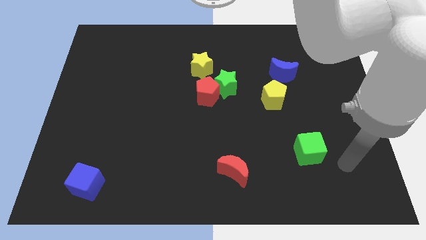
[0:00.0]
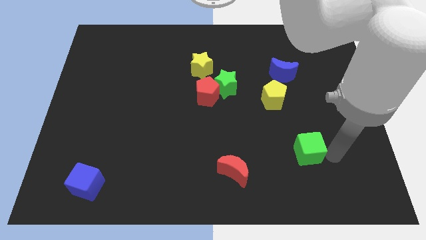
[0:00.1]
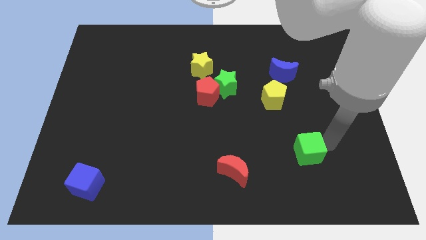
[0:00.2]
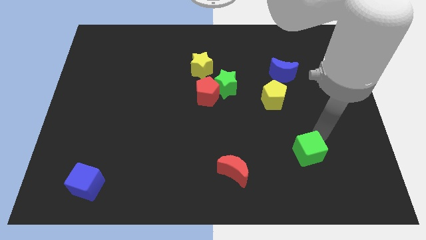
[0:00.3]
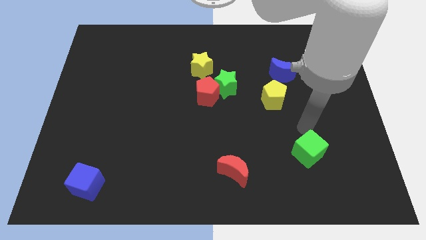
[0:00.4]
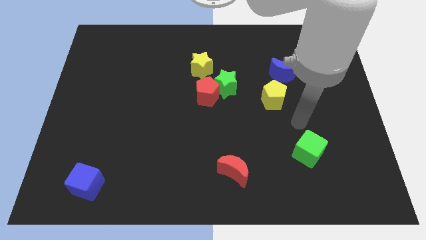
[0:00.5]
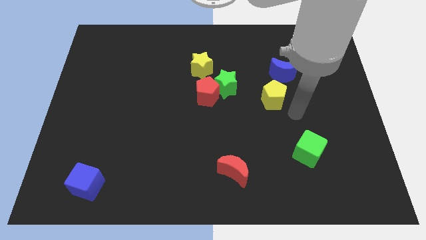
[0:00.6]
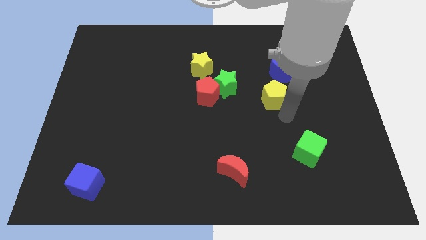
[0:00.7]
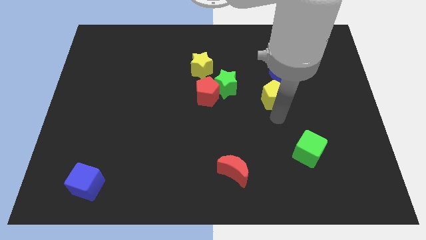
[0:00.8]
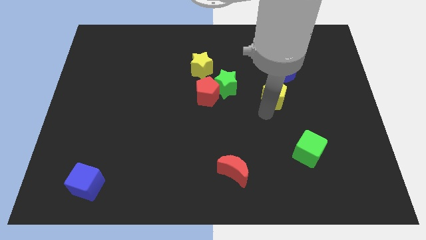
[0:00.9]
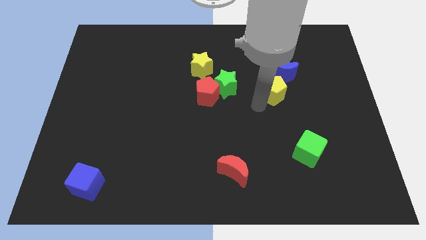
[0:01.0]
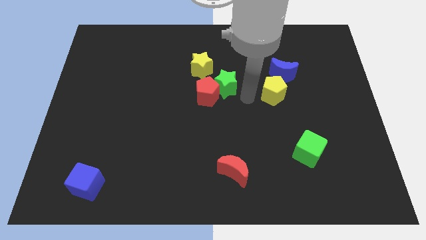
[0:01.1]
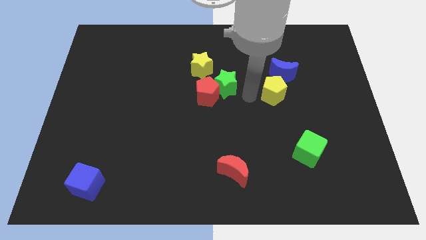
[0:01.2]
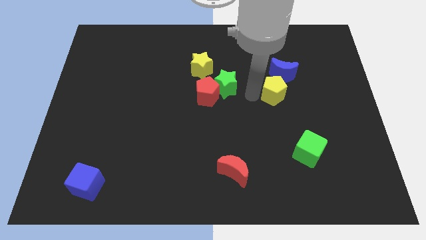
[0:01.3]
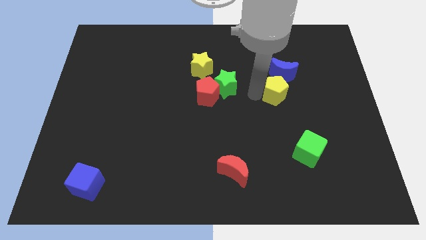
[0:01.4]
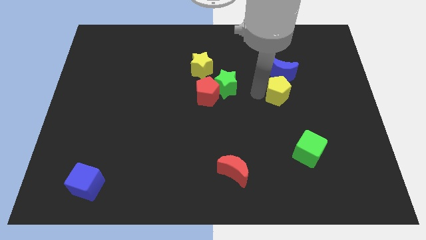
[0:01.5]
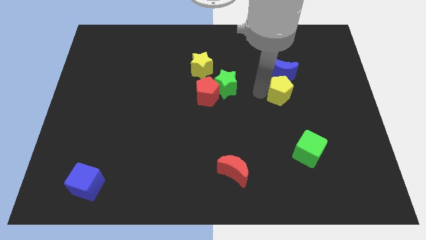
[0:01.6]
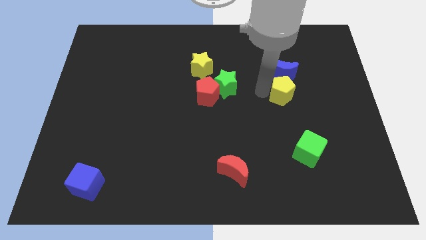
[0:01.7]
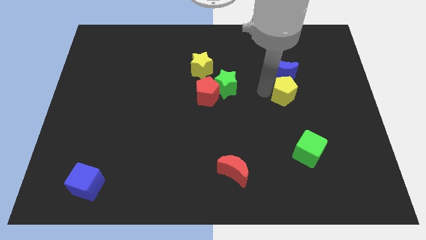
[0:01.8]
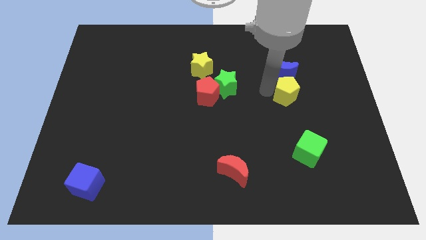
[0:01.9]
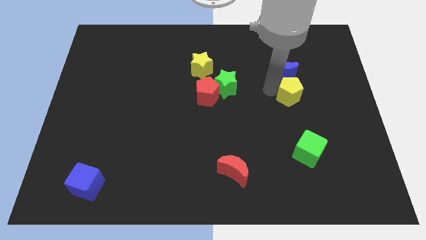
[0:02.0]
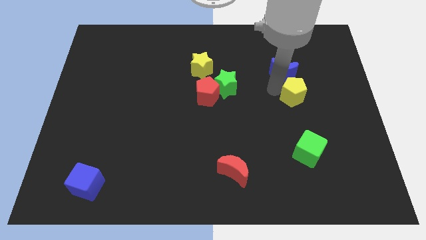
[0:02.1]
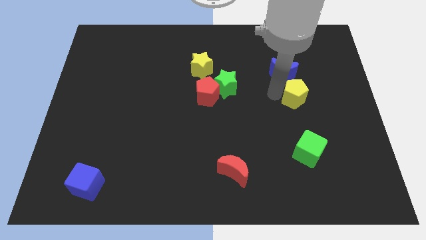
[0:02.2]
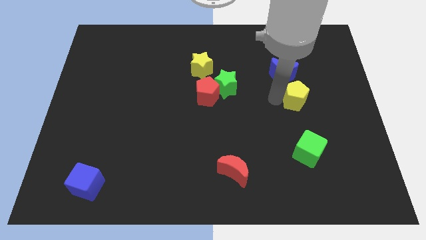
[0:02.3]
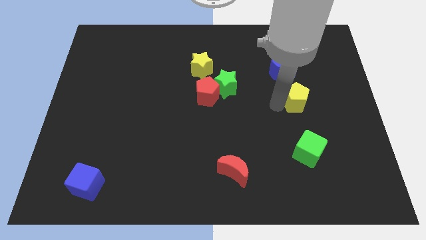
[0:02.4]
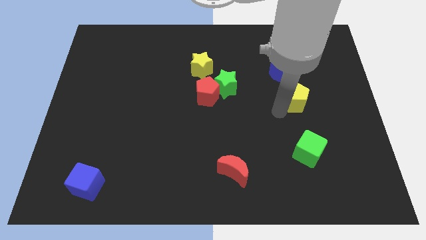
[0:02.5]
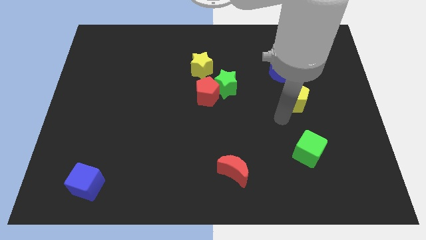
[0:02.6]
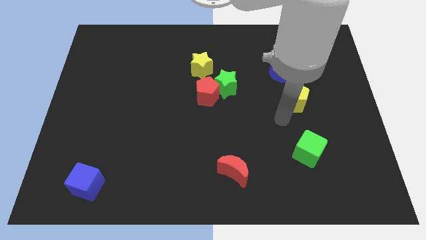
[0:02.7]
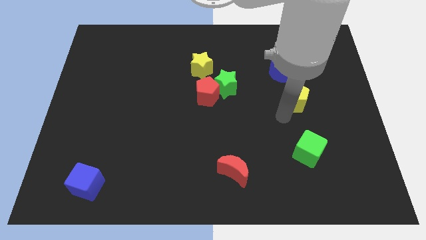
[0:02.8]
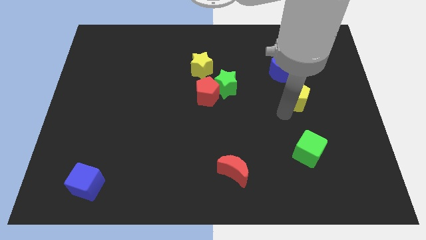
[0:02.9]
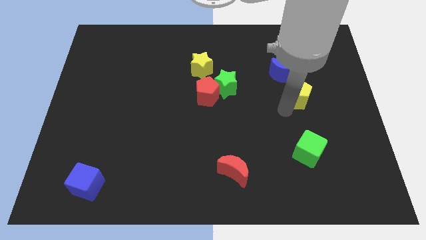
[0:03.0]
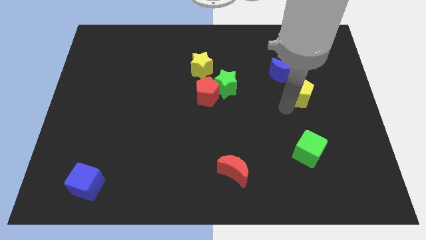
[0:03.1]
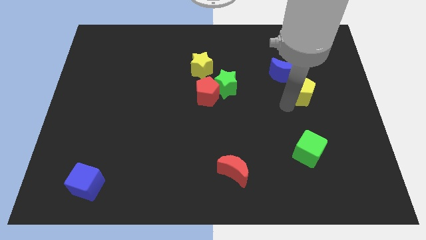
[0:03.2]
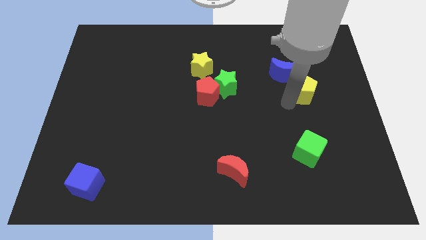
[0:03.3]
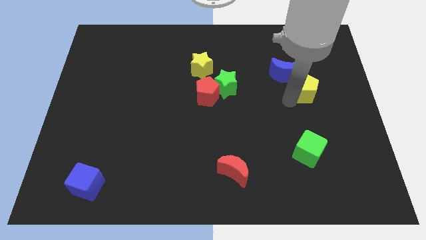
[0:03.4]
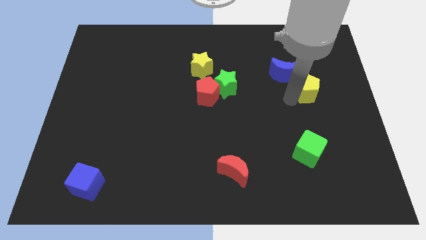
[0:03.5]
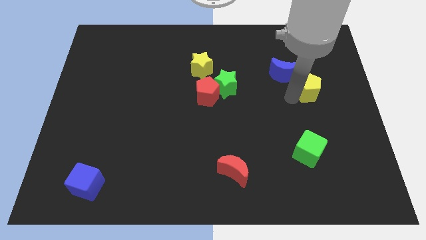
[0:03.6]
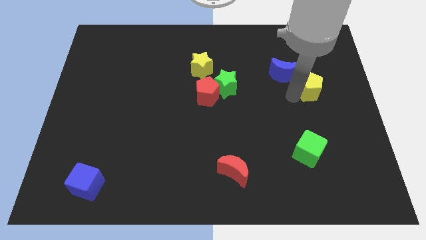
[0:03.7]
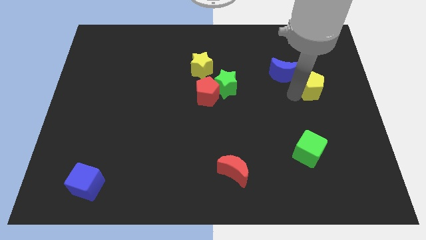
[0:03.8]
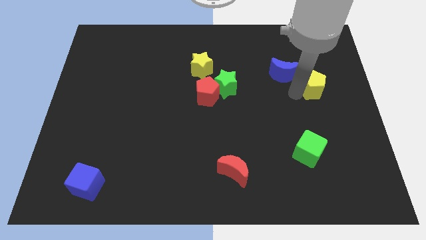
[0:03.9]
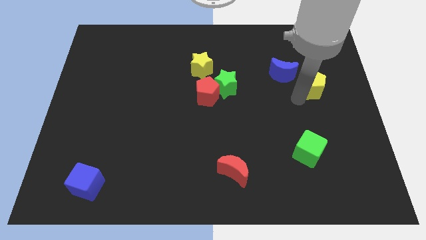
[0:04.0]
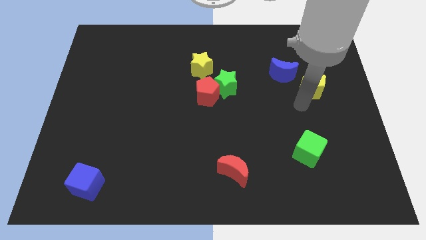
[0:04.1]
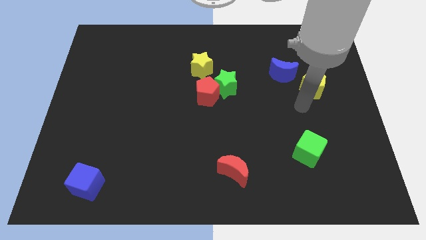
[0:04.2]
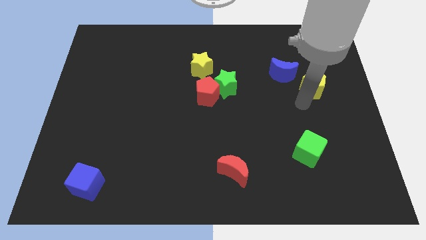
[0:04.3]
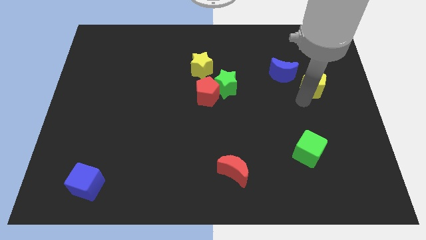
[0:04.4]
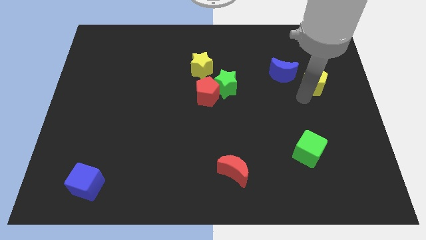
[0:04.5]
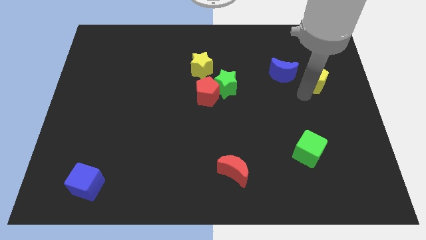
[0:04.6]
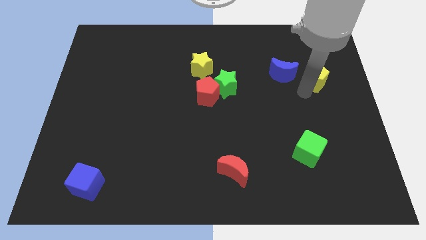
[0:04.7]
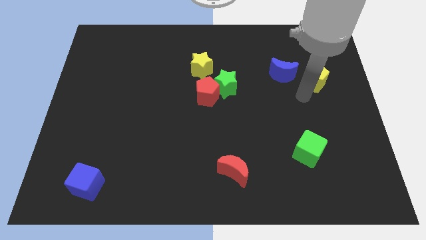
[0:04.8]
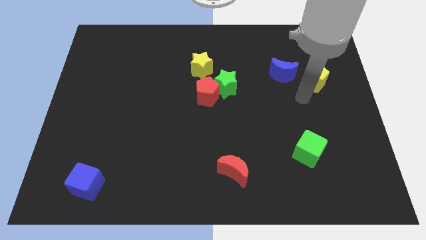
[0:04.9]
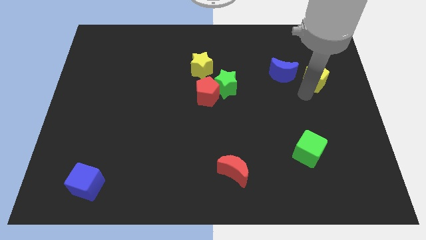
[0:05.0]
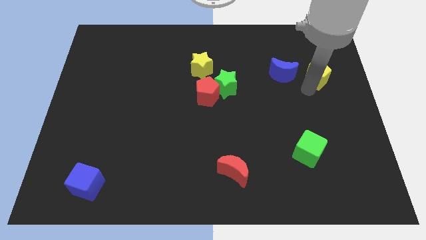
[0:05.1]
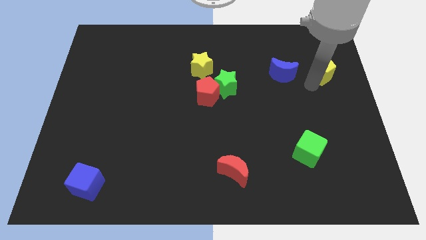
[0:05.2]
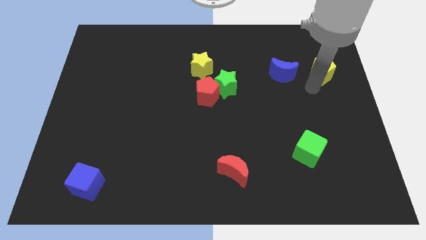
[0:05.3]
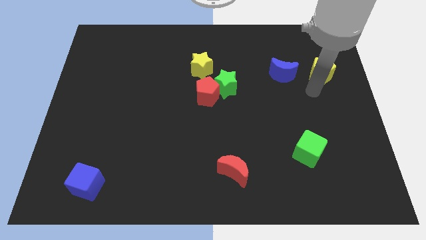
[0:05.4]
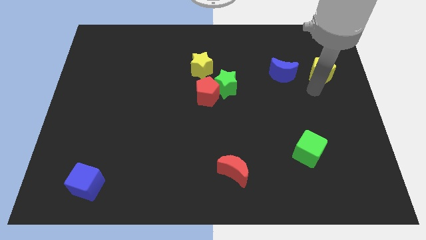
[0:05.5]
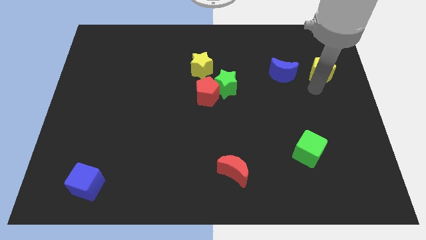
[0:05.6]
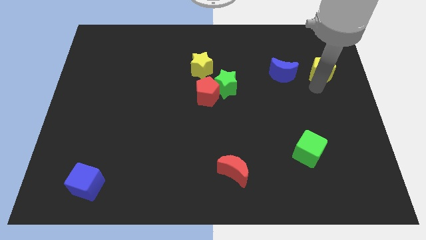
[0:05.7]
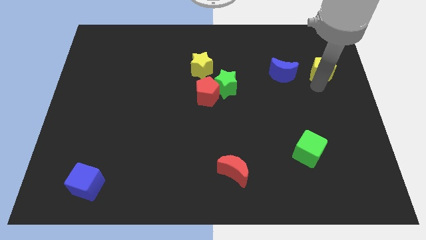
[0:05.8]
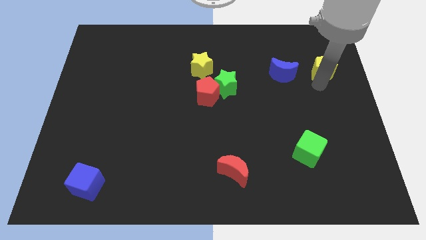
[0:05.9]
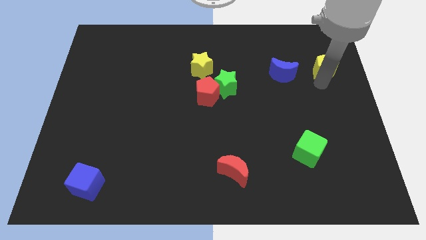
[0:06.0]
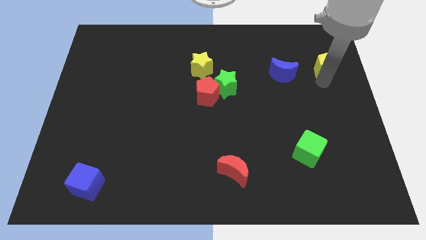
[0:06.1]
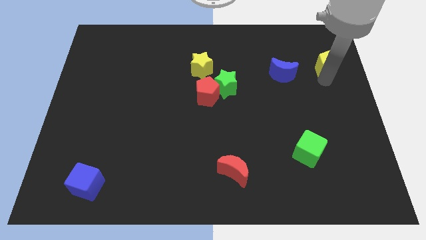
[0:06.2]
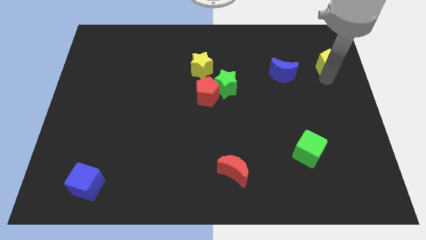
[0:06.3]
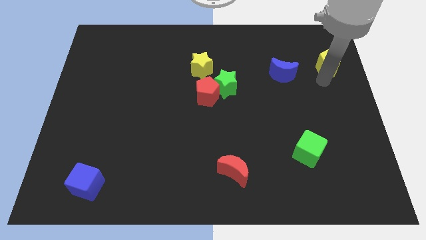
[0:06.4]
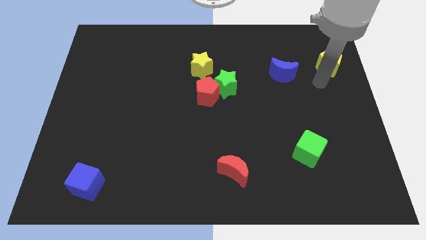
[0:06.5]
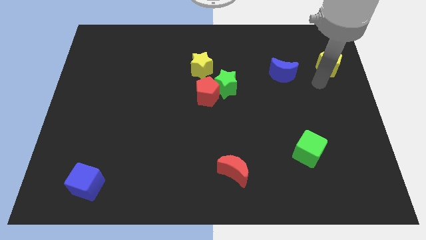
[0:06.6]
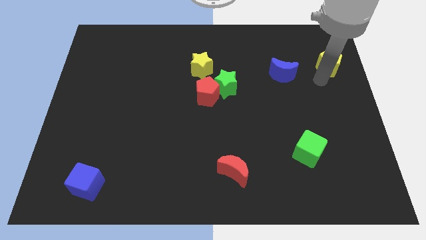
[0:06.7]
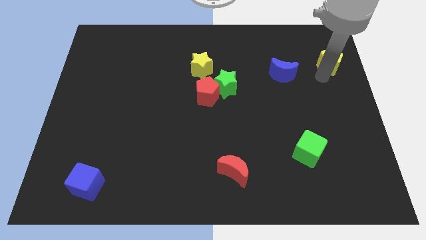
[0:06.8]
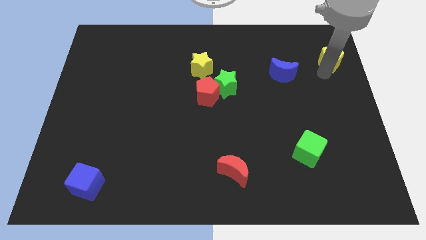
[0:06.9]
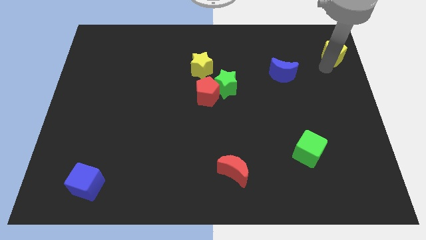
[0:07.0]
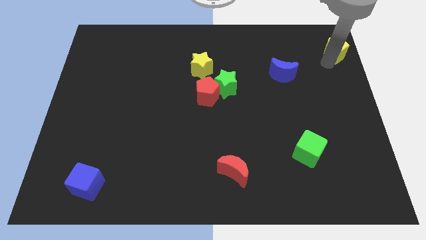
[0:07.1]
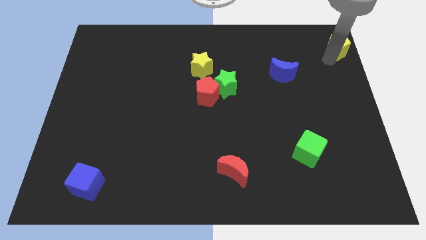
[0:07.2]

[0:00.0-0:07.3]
move the yellow pentagon to the upper right corner

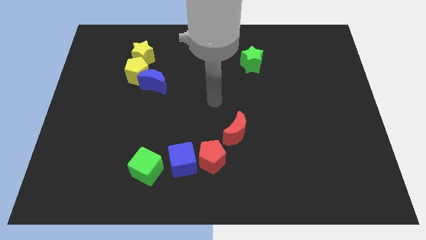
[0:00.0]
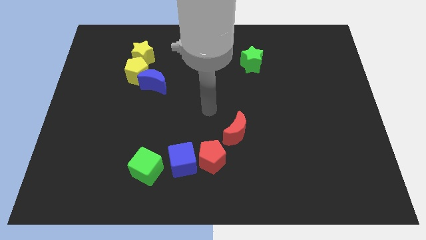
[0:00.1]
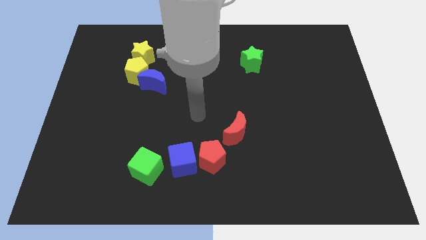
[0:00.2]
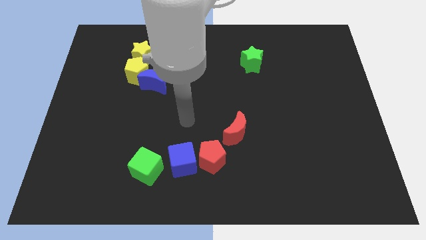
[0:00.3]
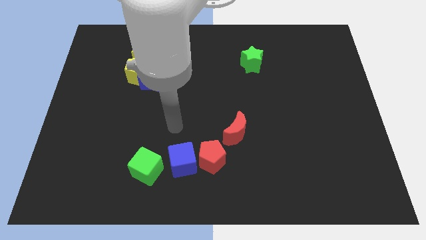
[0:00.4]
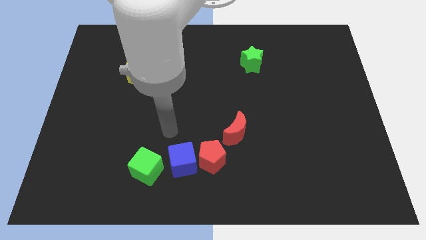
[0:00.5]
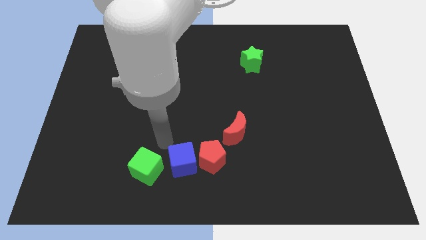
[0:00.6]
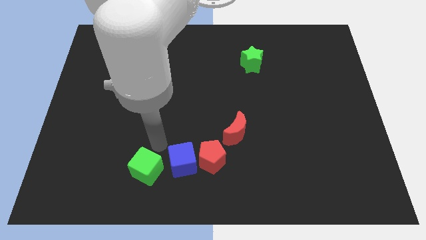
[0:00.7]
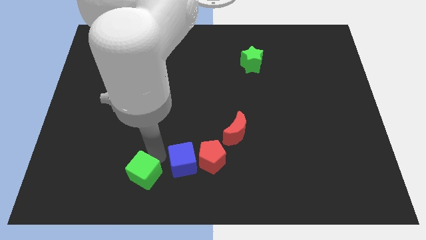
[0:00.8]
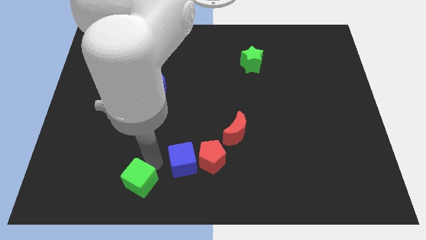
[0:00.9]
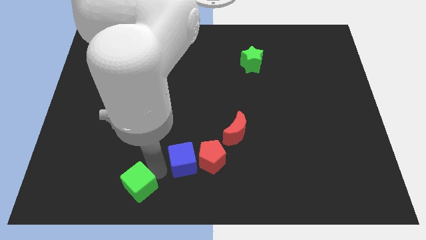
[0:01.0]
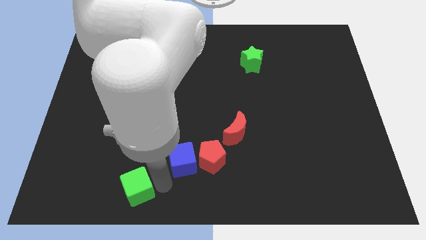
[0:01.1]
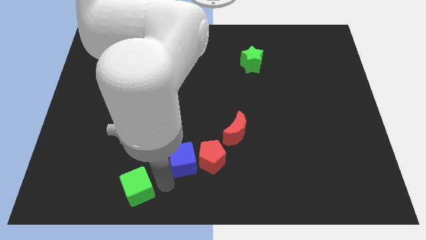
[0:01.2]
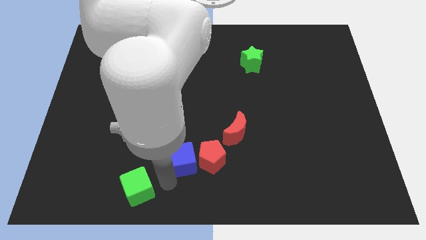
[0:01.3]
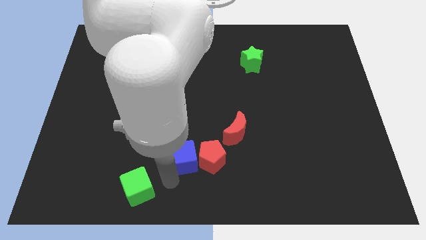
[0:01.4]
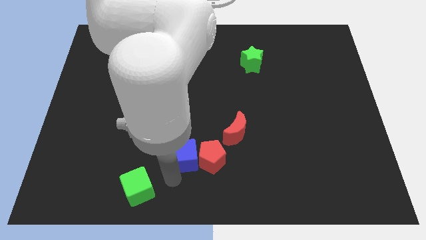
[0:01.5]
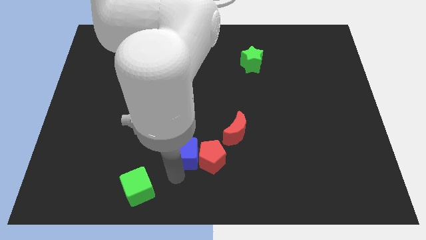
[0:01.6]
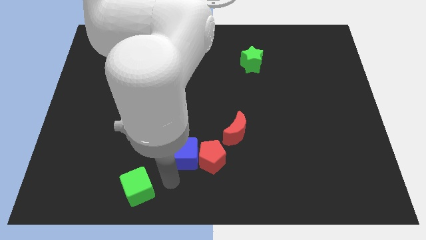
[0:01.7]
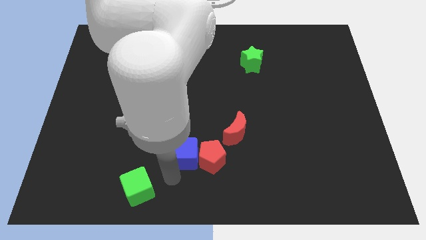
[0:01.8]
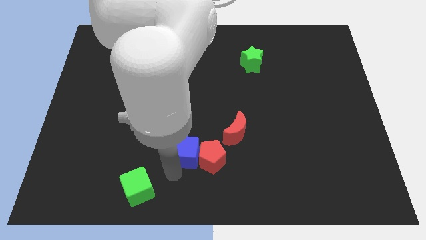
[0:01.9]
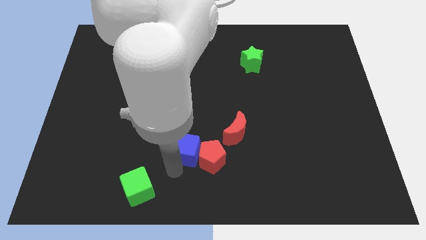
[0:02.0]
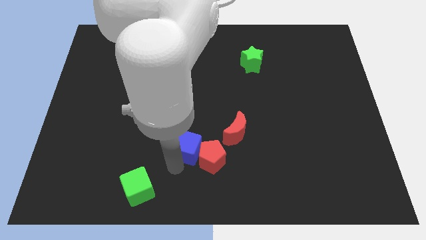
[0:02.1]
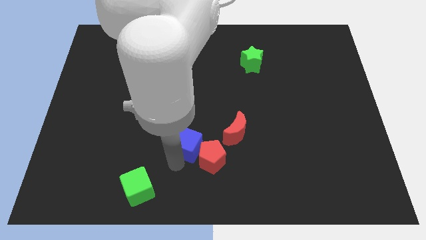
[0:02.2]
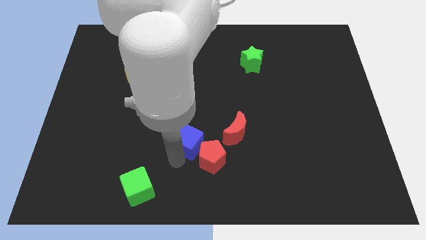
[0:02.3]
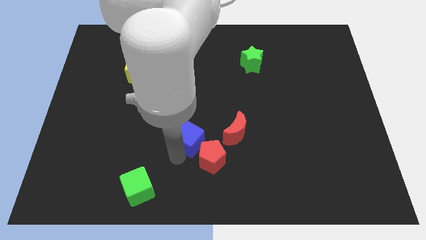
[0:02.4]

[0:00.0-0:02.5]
put the blue cube to the center
